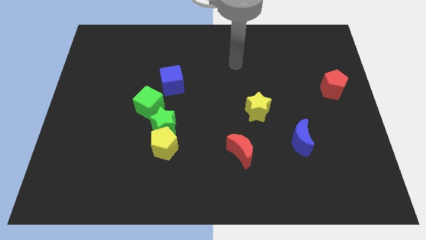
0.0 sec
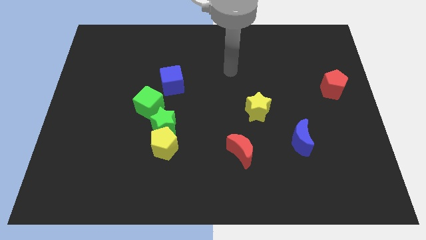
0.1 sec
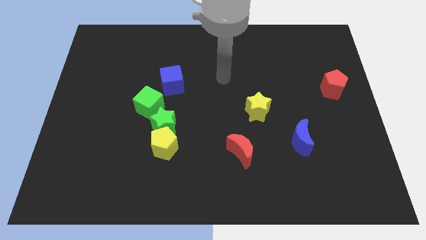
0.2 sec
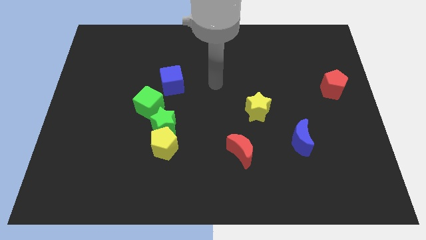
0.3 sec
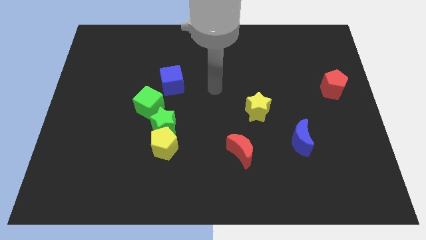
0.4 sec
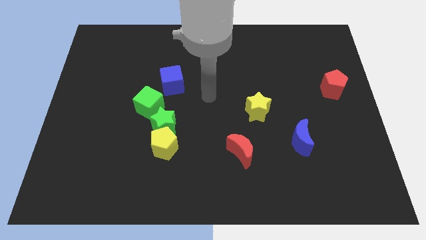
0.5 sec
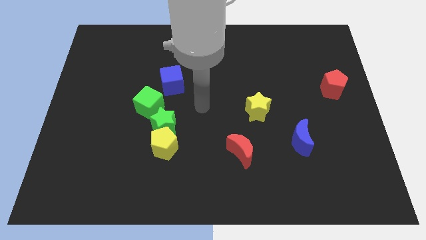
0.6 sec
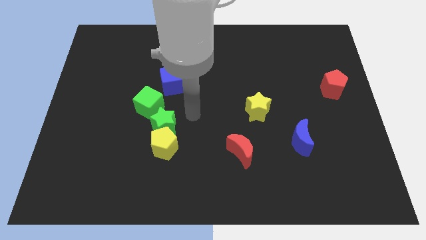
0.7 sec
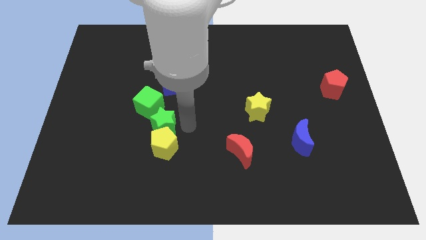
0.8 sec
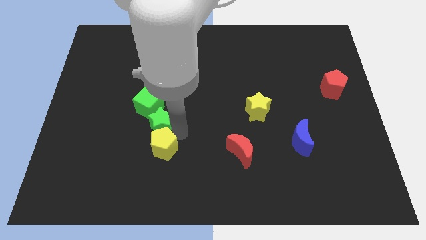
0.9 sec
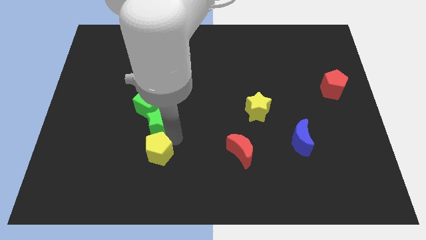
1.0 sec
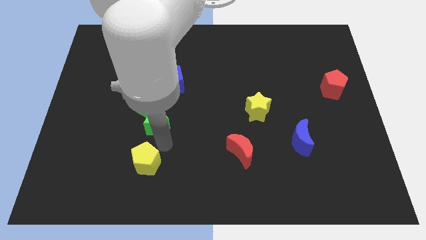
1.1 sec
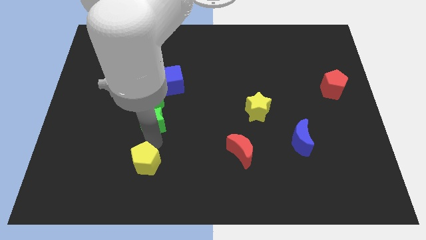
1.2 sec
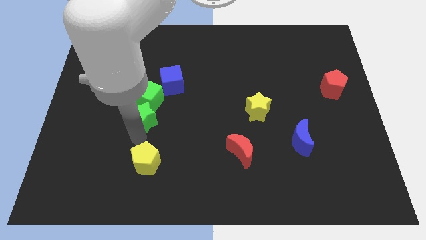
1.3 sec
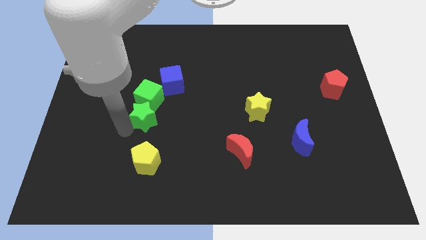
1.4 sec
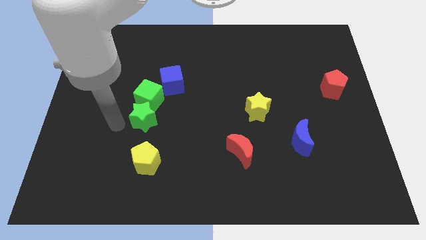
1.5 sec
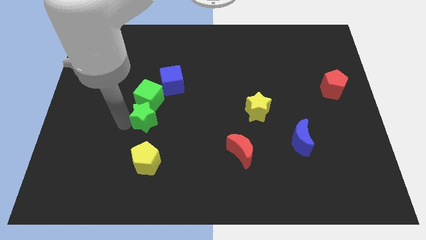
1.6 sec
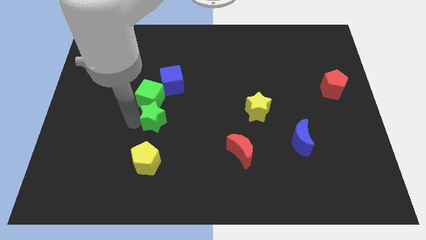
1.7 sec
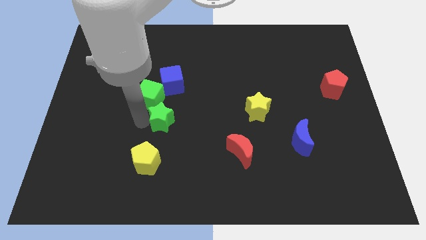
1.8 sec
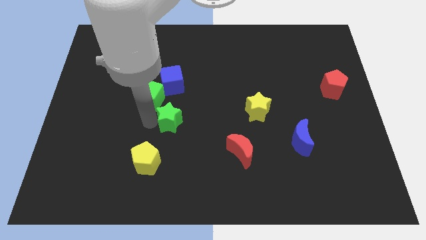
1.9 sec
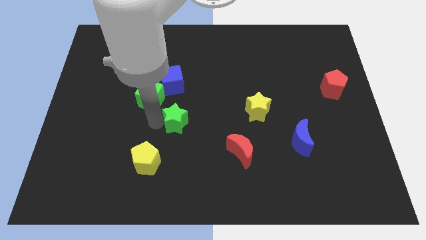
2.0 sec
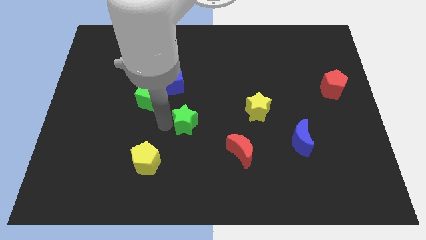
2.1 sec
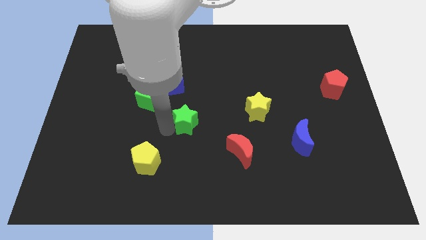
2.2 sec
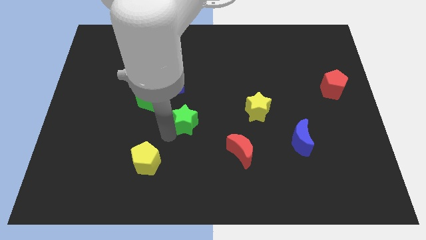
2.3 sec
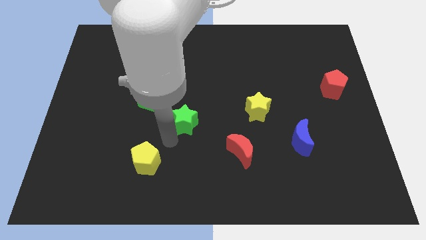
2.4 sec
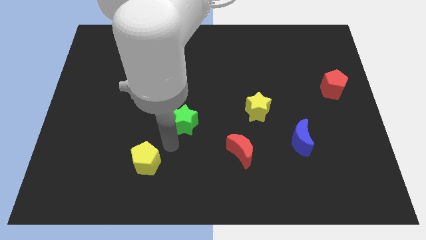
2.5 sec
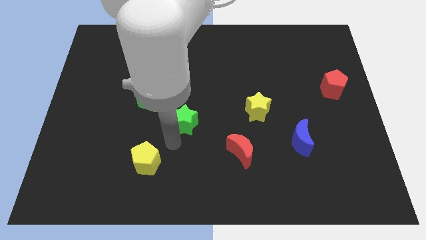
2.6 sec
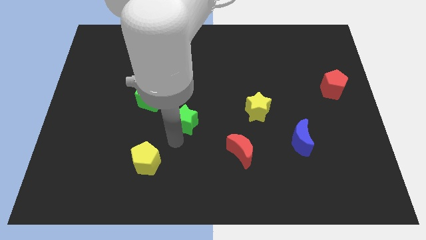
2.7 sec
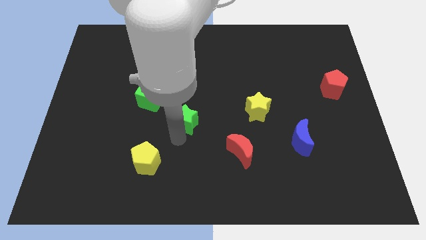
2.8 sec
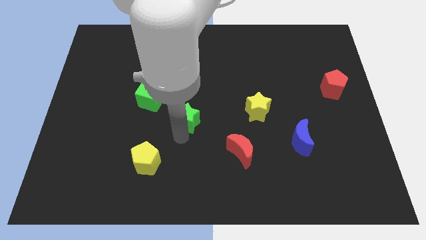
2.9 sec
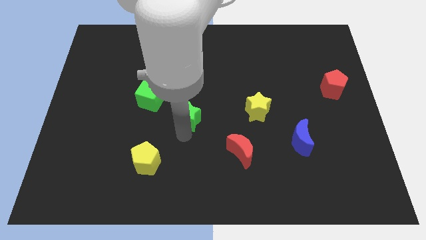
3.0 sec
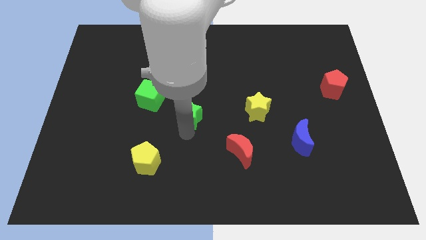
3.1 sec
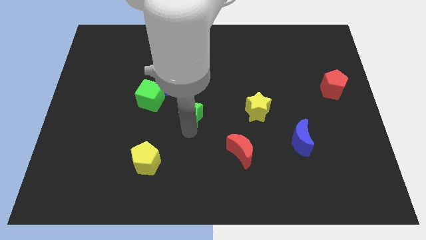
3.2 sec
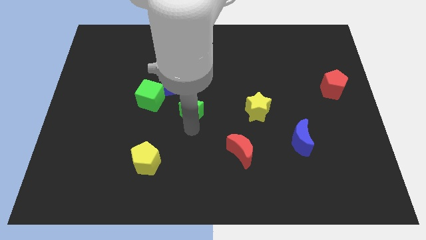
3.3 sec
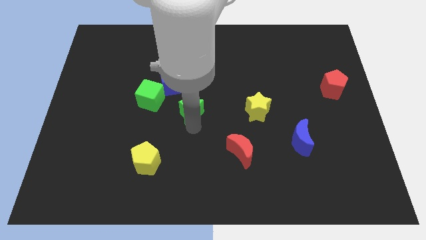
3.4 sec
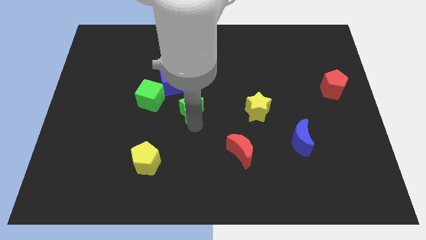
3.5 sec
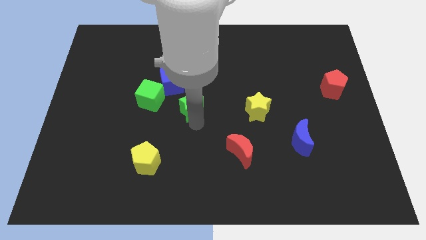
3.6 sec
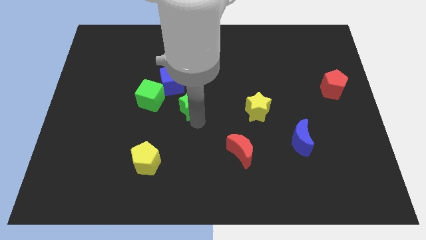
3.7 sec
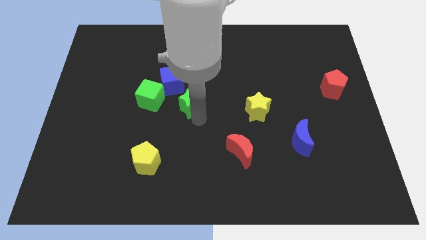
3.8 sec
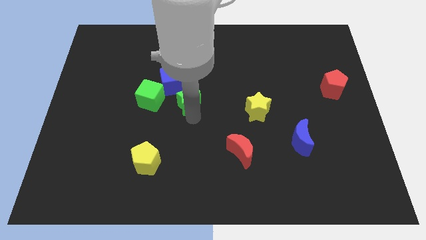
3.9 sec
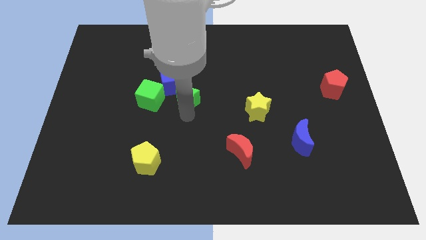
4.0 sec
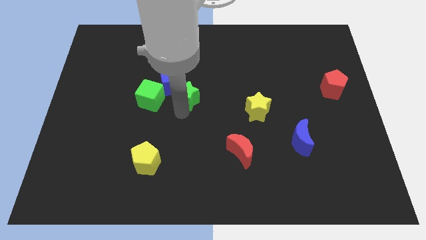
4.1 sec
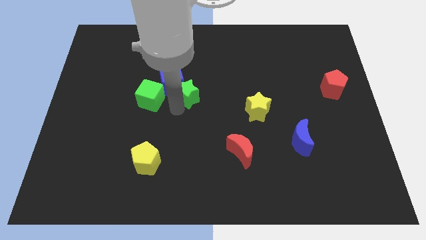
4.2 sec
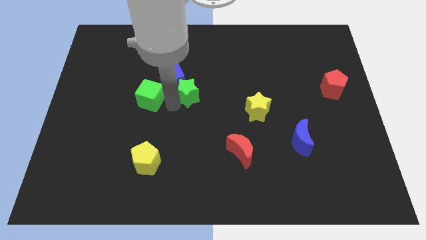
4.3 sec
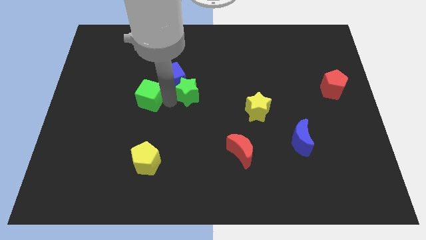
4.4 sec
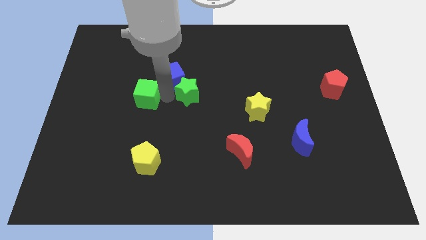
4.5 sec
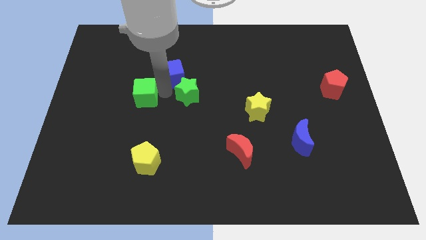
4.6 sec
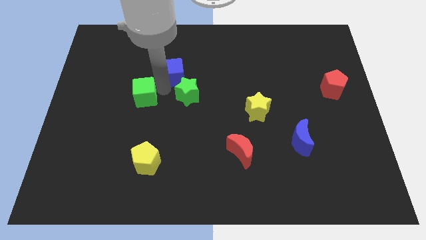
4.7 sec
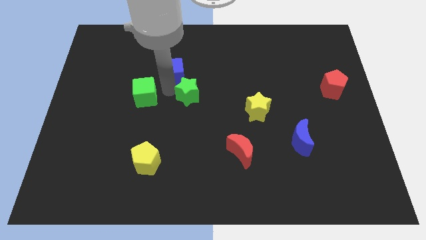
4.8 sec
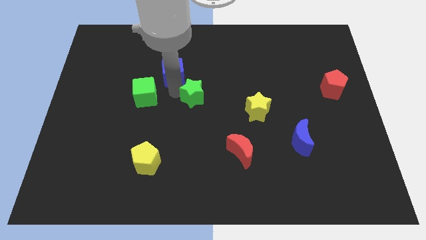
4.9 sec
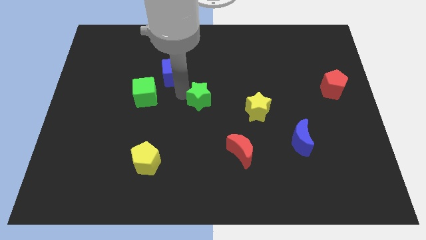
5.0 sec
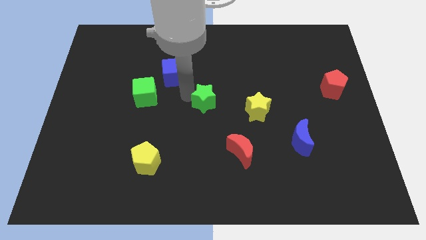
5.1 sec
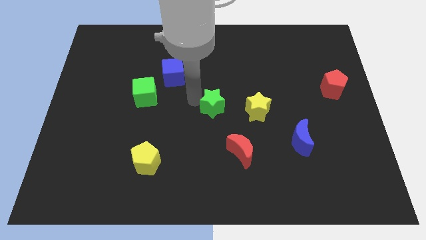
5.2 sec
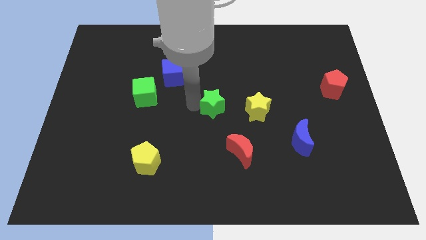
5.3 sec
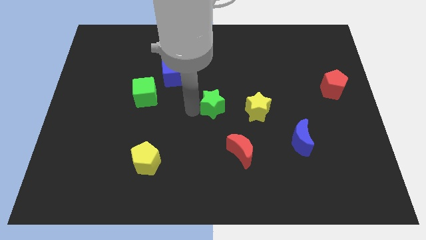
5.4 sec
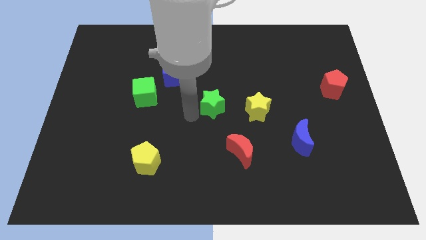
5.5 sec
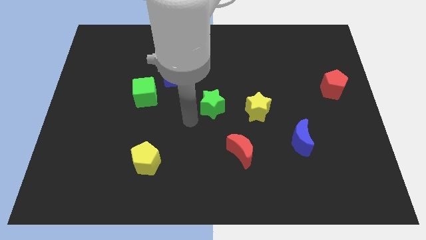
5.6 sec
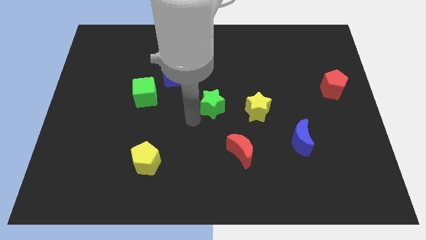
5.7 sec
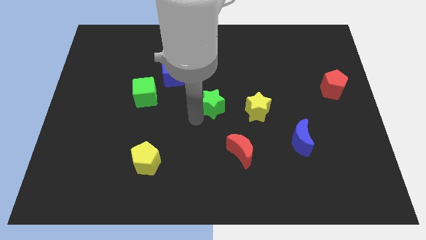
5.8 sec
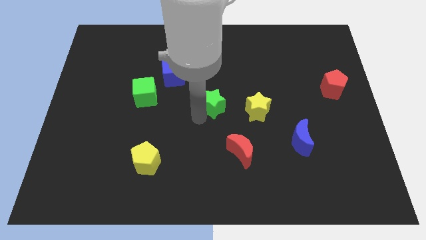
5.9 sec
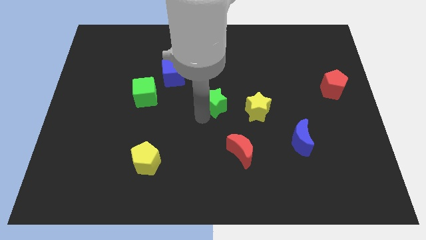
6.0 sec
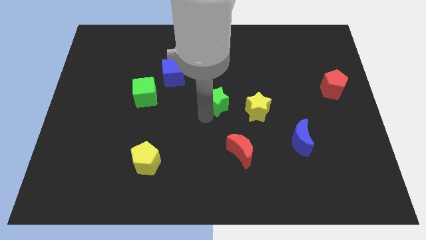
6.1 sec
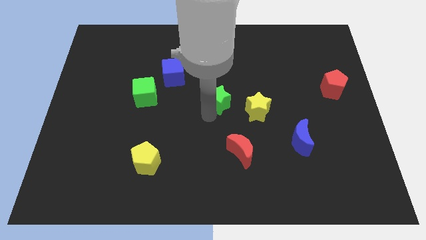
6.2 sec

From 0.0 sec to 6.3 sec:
slide the green star to the top left side of the yellow star

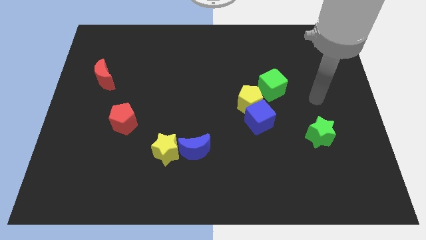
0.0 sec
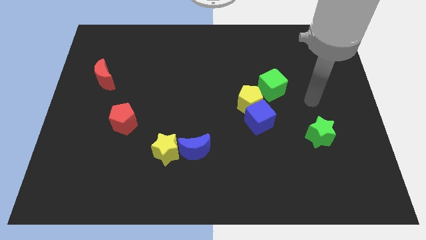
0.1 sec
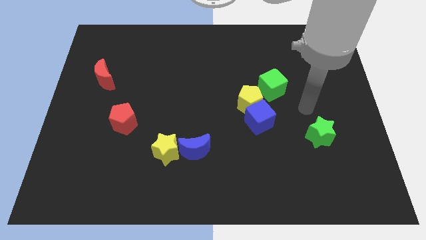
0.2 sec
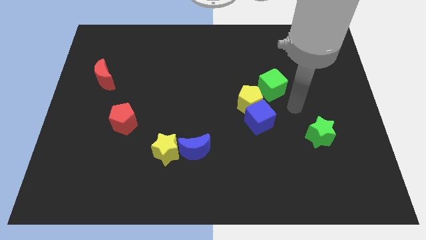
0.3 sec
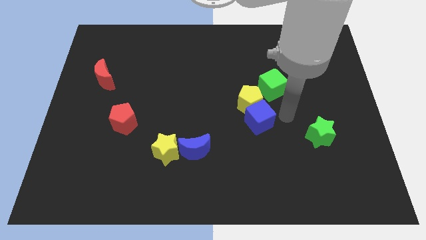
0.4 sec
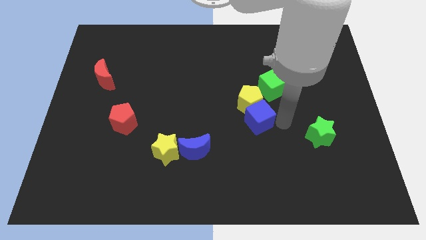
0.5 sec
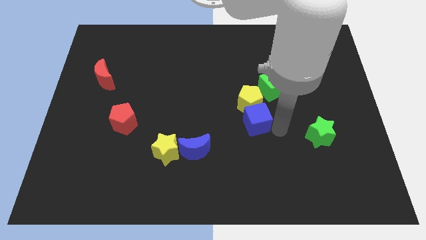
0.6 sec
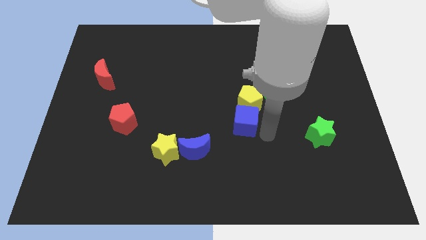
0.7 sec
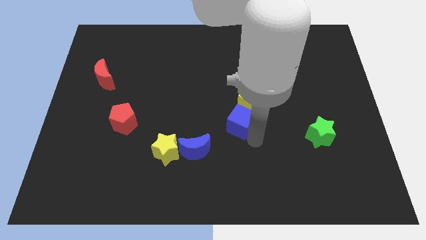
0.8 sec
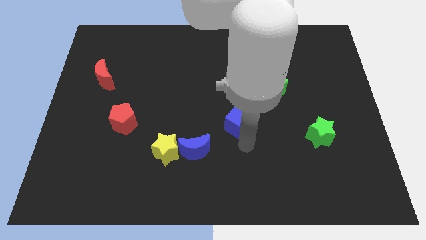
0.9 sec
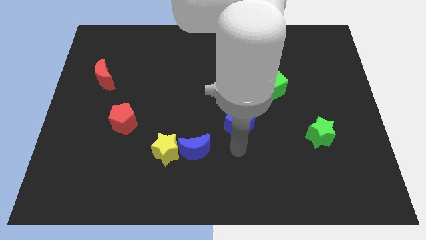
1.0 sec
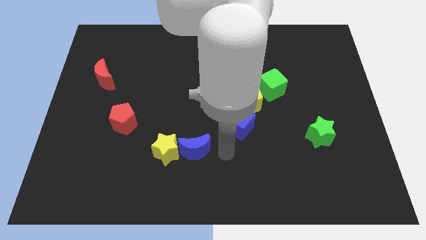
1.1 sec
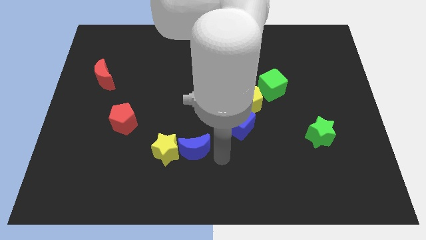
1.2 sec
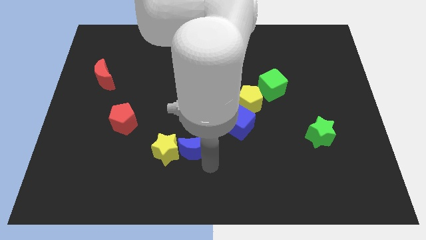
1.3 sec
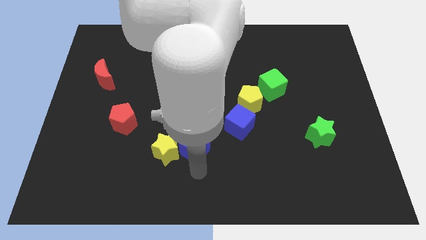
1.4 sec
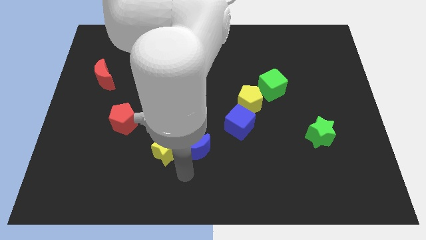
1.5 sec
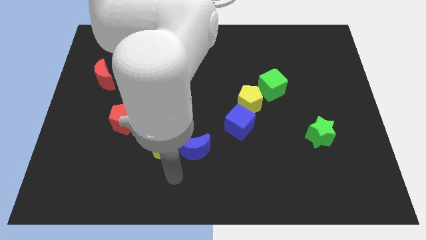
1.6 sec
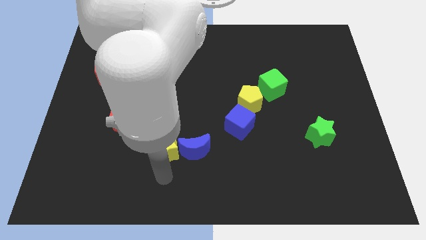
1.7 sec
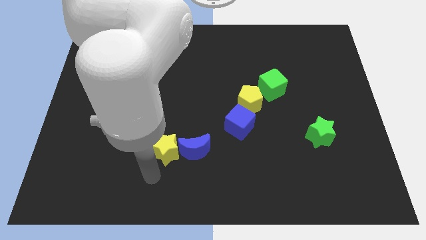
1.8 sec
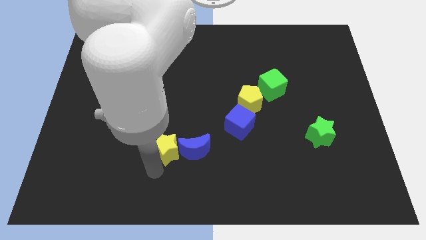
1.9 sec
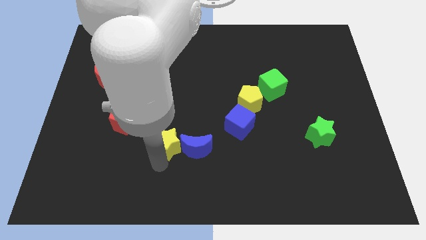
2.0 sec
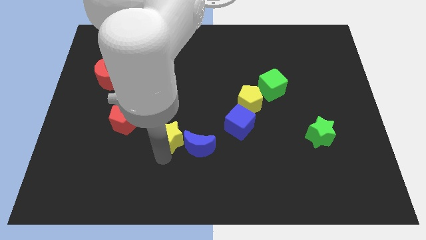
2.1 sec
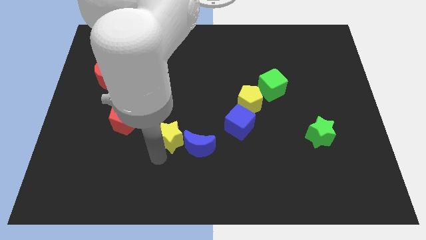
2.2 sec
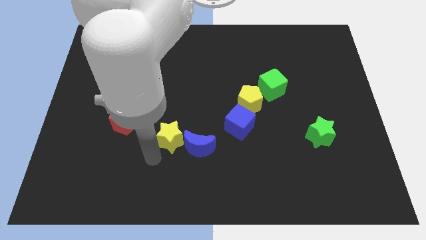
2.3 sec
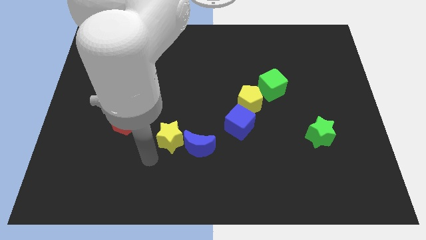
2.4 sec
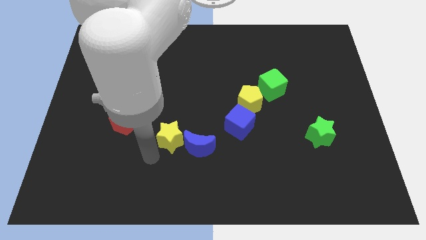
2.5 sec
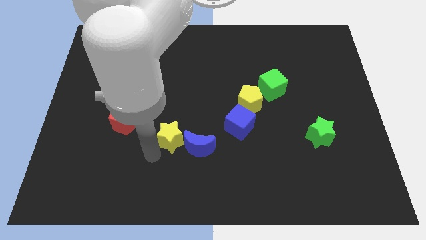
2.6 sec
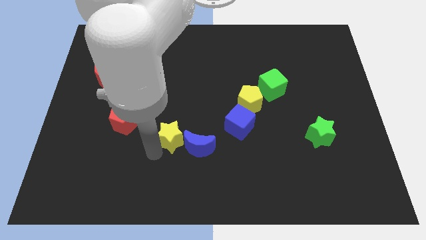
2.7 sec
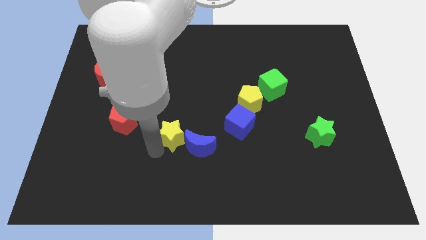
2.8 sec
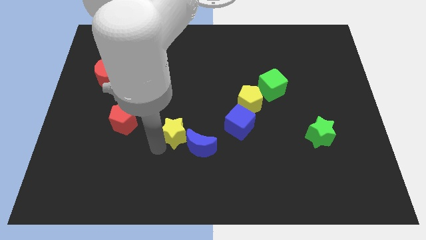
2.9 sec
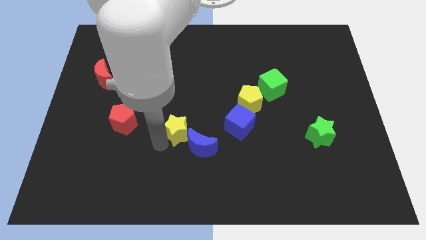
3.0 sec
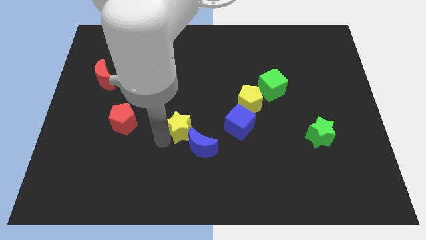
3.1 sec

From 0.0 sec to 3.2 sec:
slide the yellow star to the top side of the blue moon
